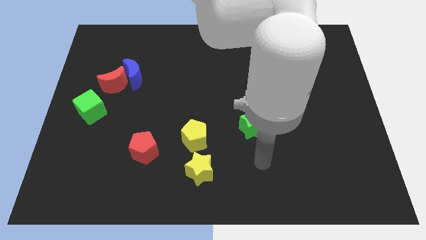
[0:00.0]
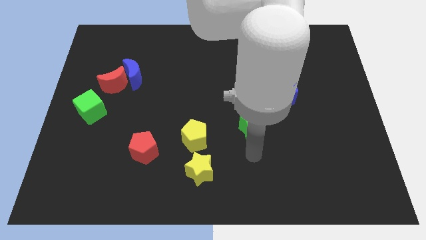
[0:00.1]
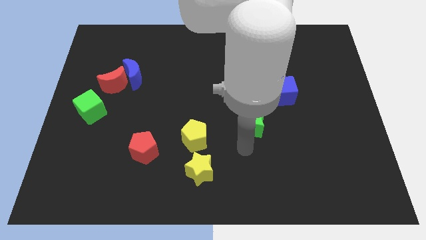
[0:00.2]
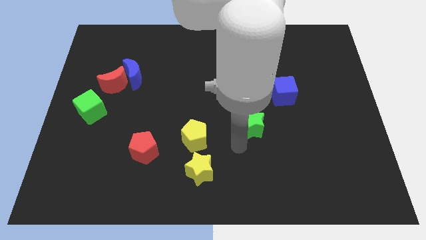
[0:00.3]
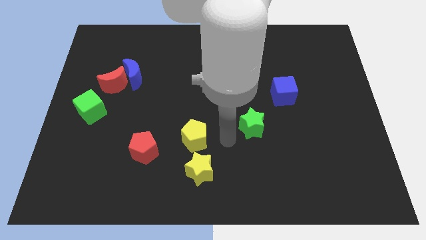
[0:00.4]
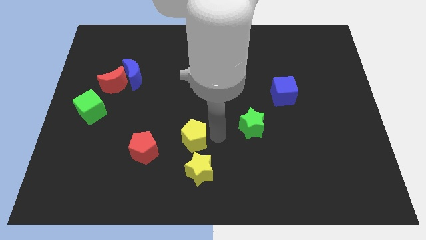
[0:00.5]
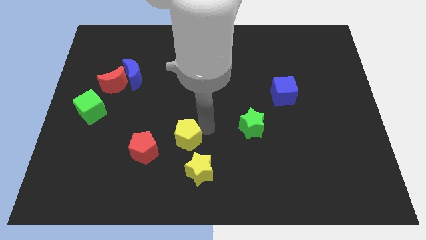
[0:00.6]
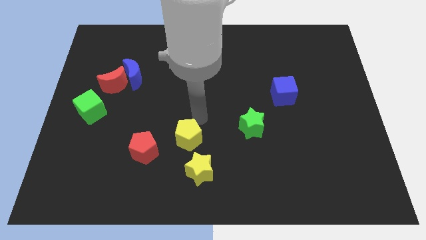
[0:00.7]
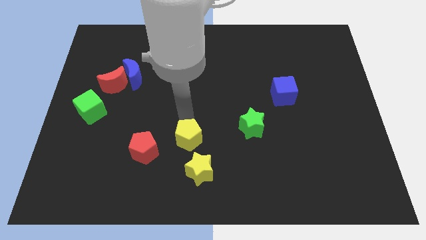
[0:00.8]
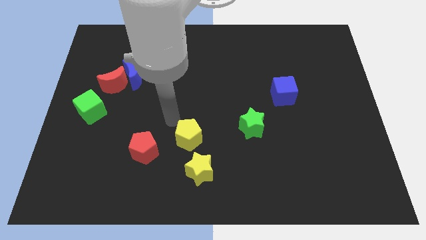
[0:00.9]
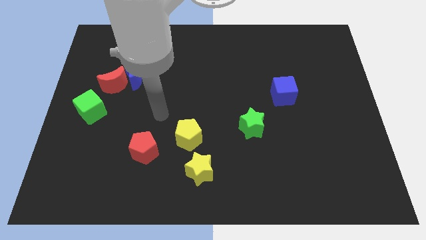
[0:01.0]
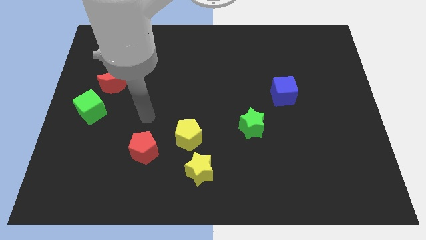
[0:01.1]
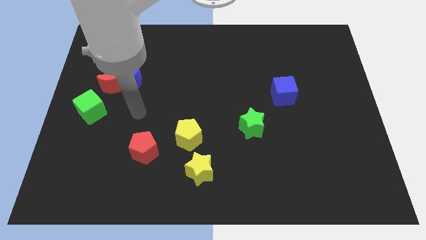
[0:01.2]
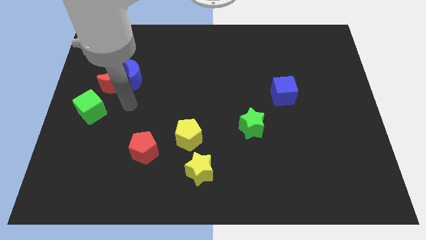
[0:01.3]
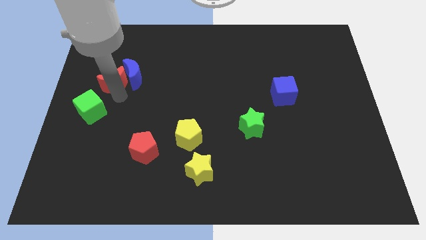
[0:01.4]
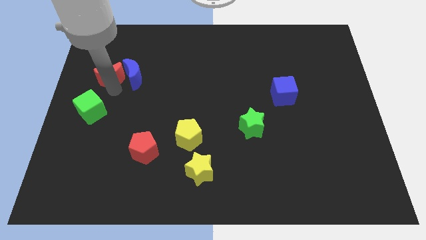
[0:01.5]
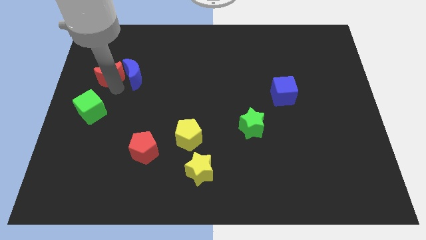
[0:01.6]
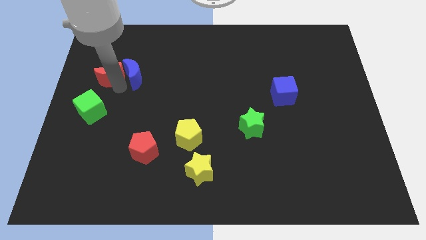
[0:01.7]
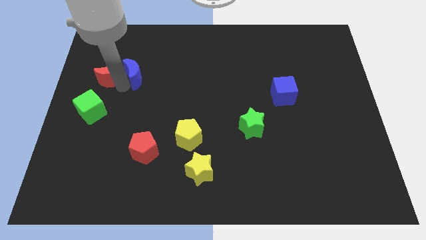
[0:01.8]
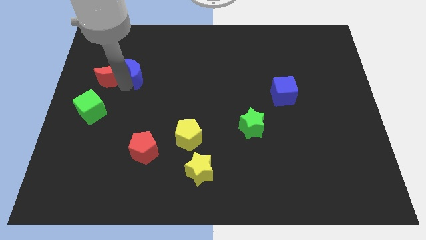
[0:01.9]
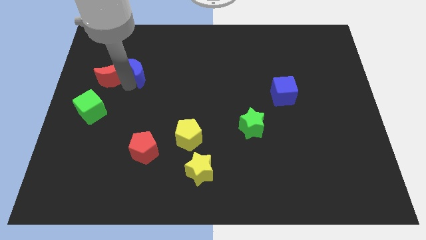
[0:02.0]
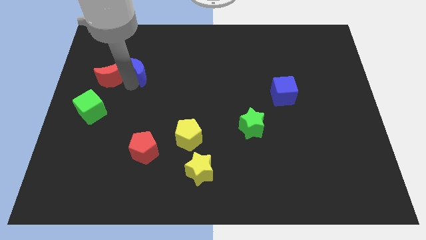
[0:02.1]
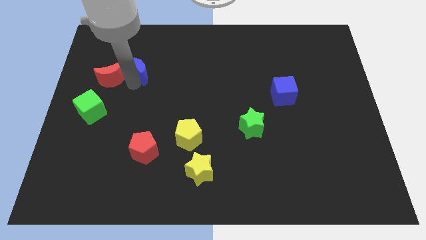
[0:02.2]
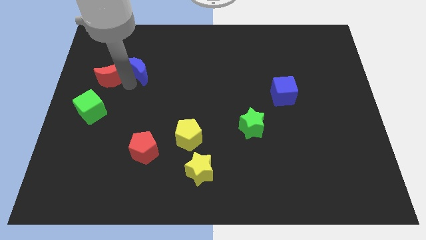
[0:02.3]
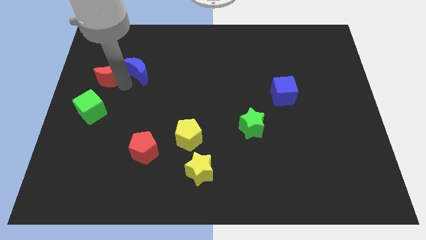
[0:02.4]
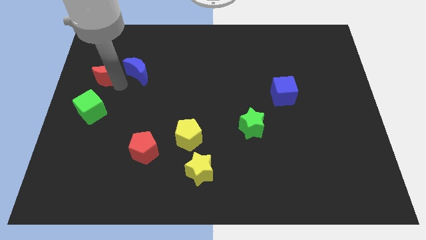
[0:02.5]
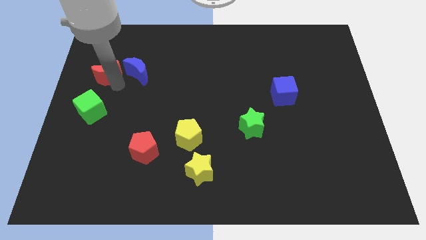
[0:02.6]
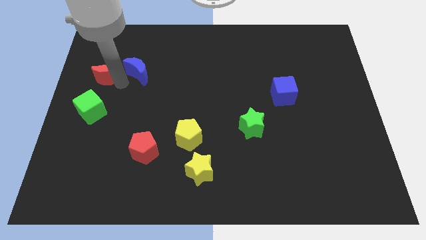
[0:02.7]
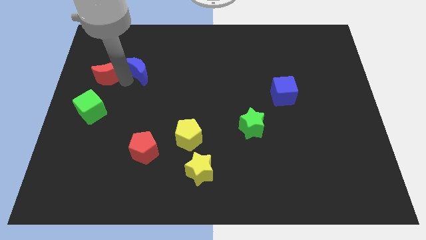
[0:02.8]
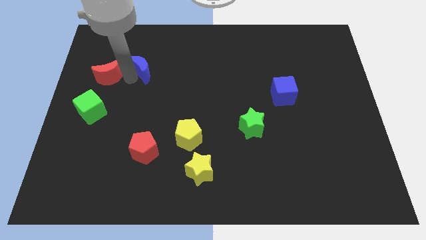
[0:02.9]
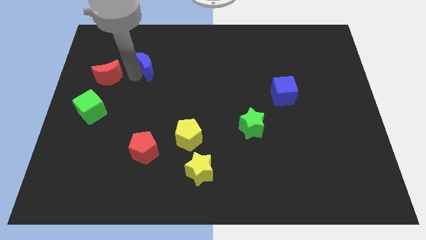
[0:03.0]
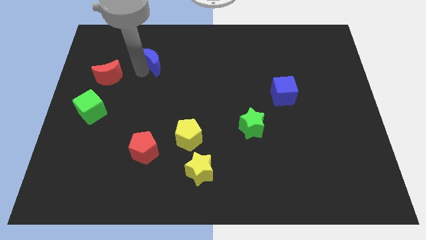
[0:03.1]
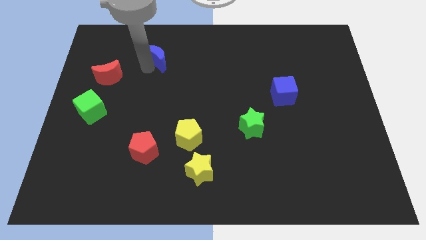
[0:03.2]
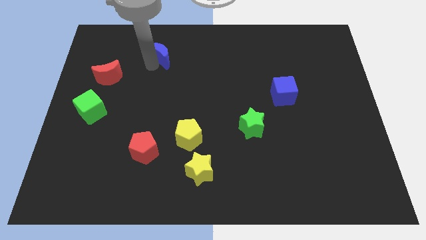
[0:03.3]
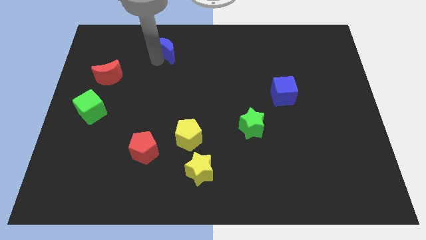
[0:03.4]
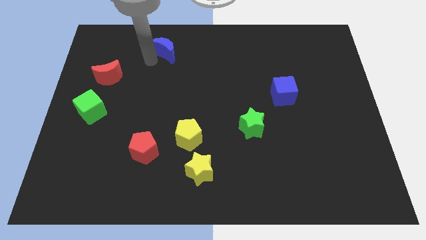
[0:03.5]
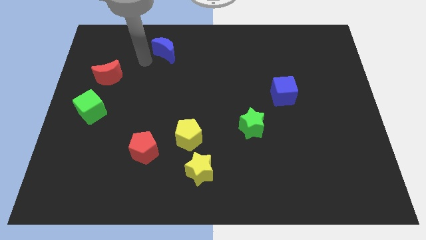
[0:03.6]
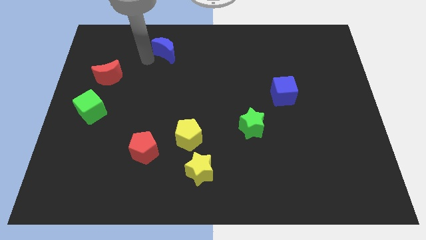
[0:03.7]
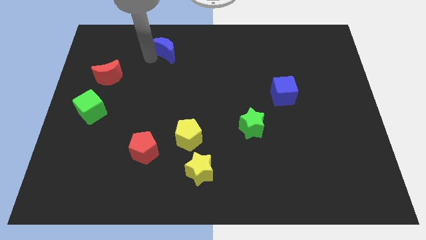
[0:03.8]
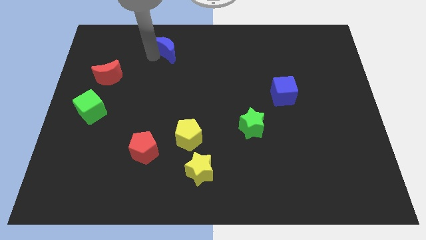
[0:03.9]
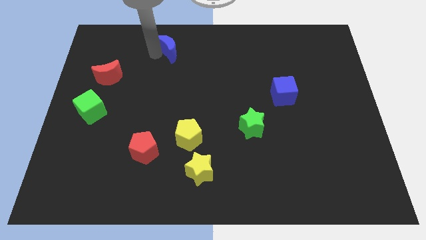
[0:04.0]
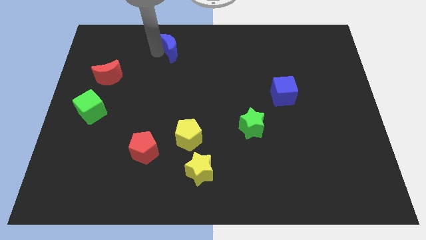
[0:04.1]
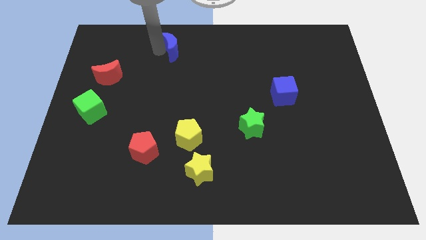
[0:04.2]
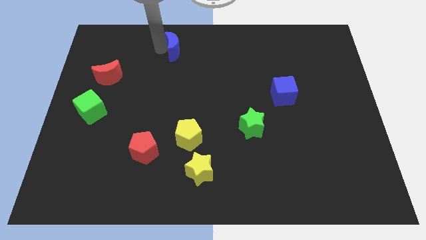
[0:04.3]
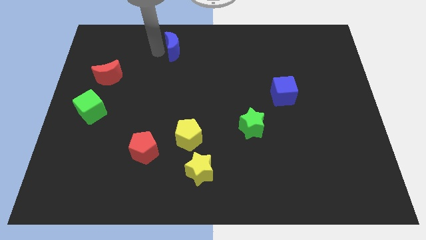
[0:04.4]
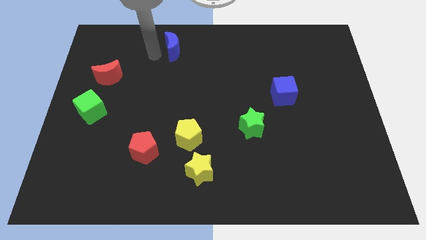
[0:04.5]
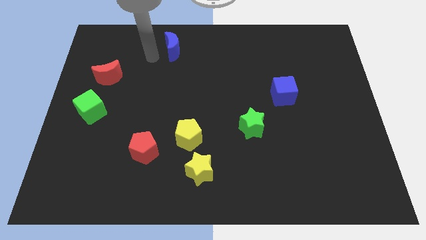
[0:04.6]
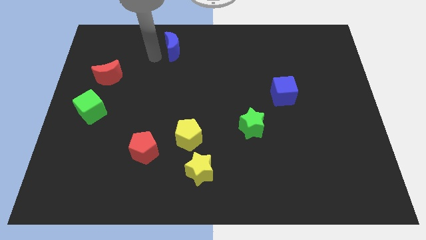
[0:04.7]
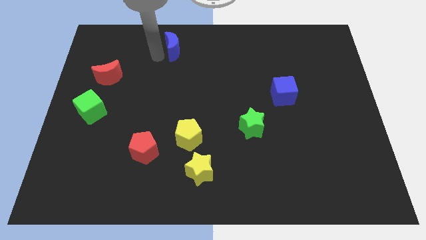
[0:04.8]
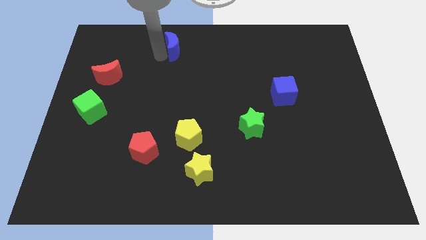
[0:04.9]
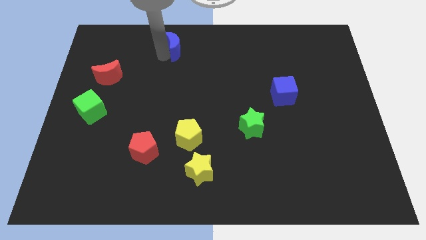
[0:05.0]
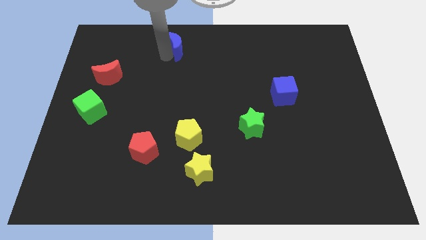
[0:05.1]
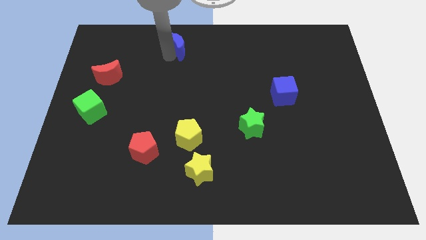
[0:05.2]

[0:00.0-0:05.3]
move the blue moon to the top
